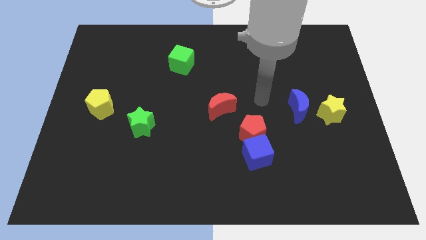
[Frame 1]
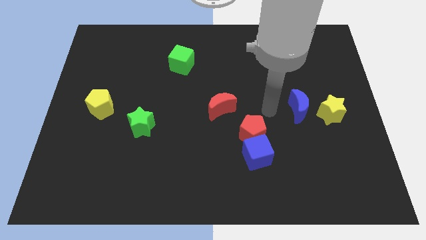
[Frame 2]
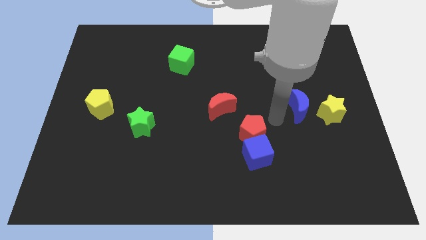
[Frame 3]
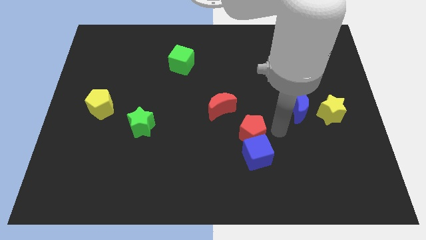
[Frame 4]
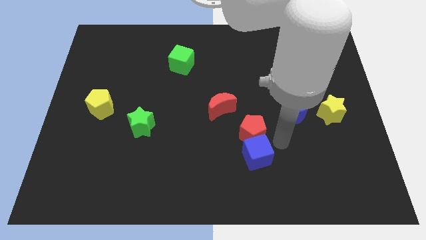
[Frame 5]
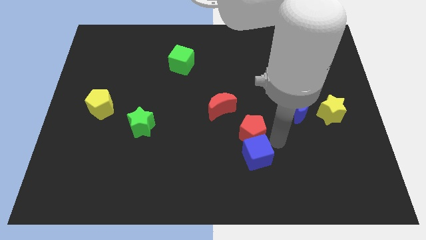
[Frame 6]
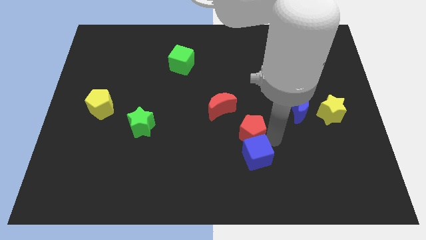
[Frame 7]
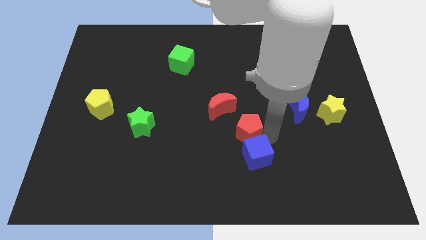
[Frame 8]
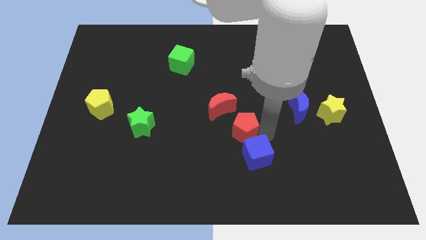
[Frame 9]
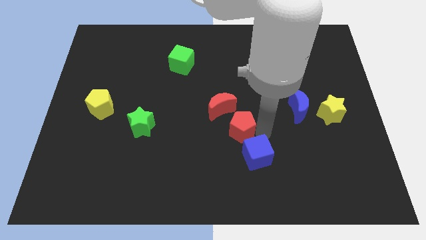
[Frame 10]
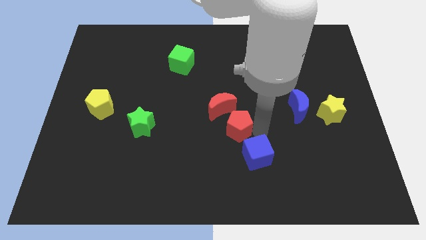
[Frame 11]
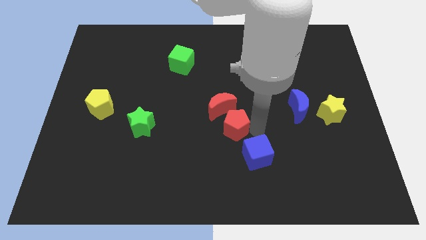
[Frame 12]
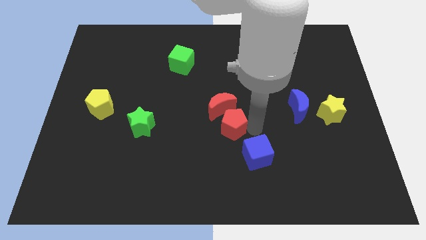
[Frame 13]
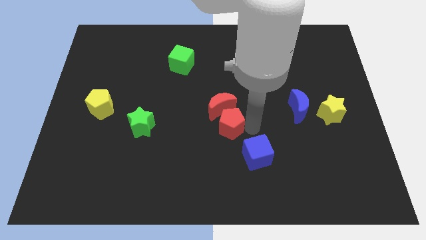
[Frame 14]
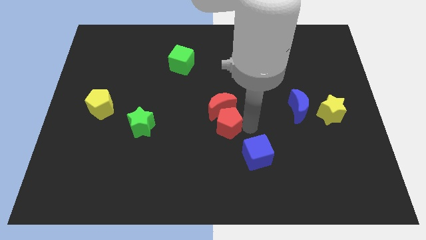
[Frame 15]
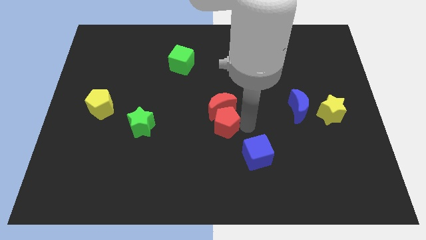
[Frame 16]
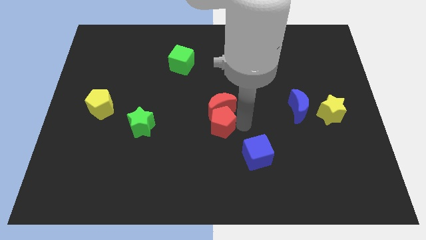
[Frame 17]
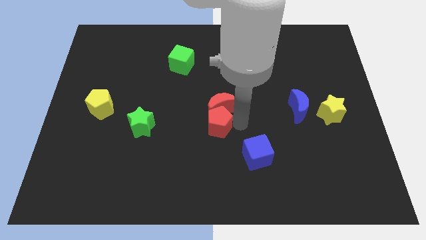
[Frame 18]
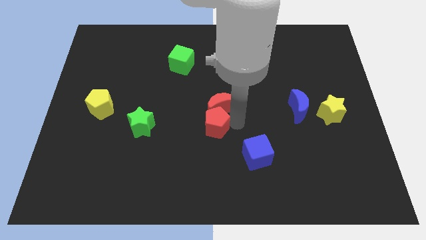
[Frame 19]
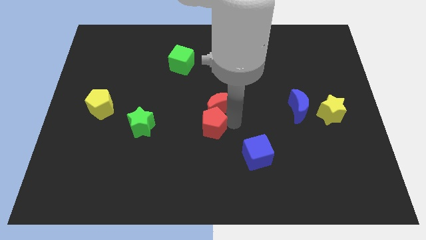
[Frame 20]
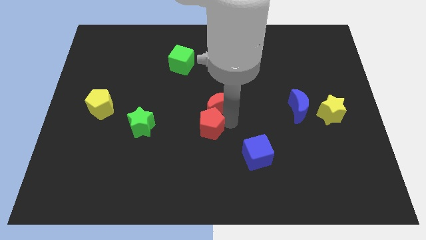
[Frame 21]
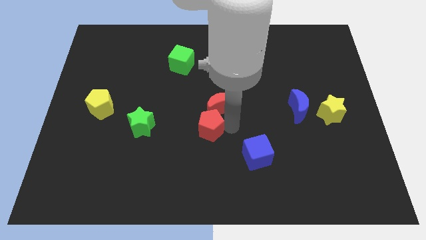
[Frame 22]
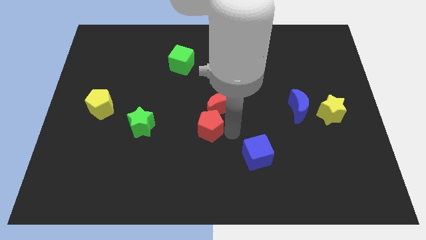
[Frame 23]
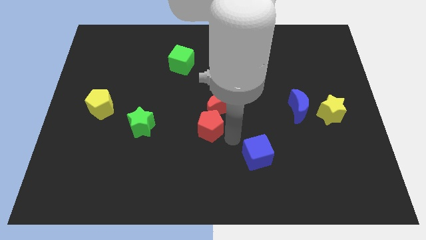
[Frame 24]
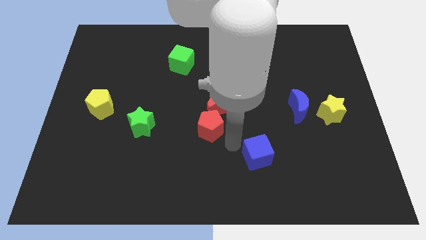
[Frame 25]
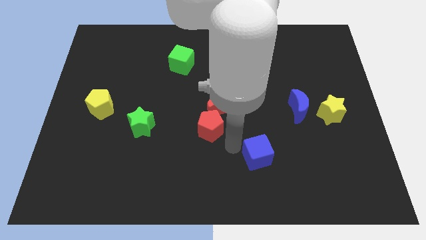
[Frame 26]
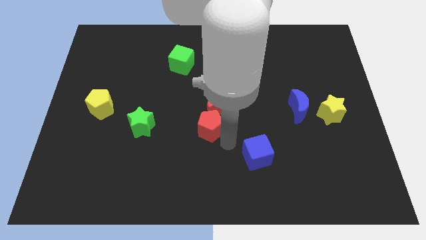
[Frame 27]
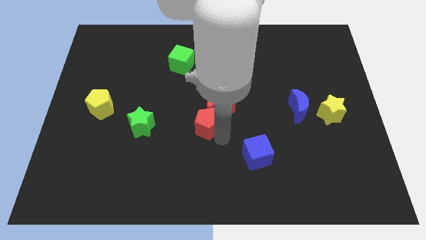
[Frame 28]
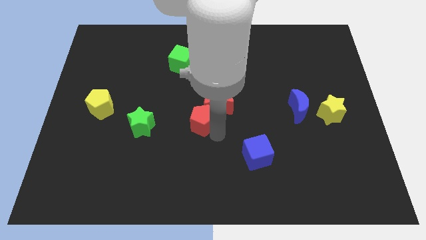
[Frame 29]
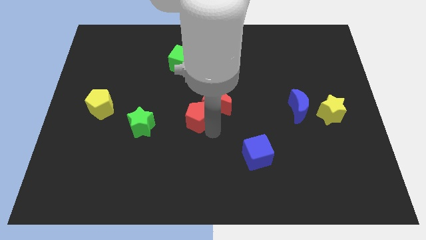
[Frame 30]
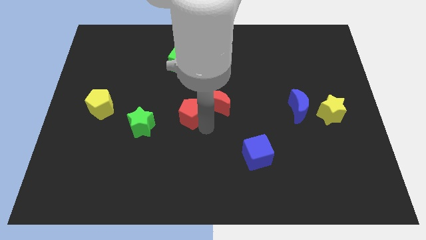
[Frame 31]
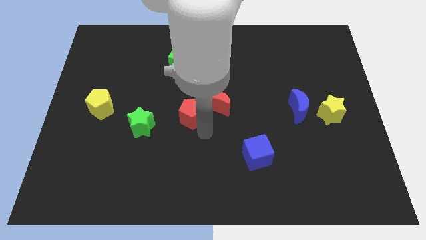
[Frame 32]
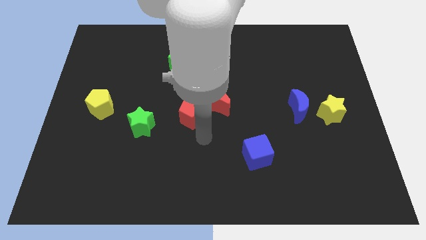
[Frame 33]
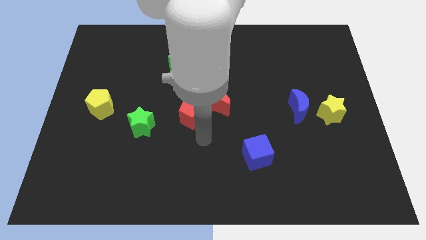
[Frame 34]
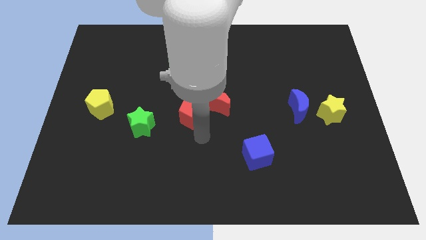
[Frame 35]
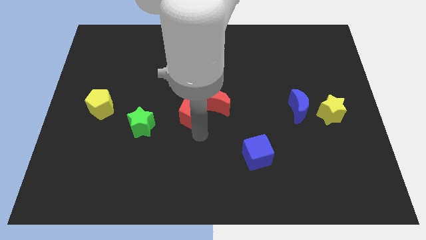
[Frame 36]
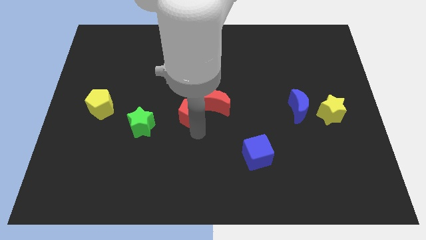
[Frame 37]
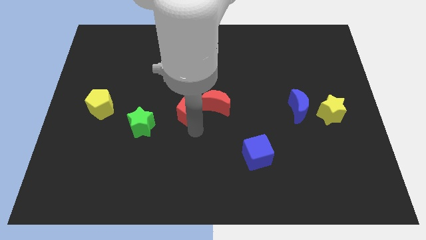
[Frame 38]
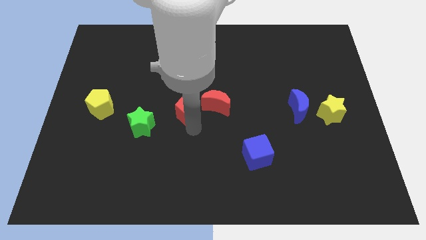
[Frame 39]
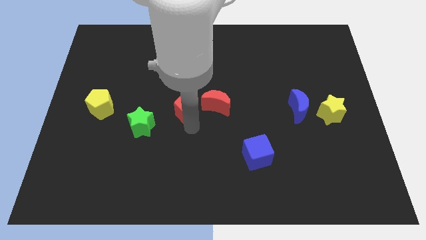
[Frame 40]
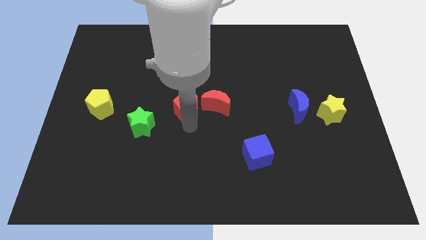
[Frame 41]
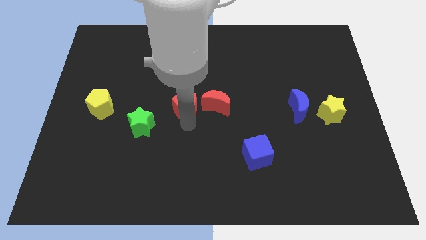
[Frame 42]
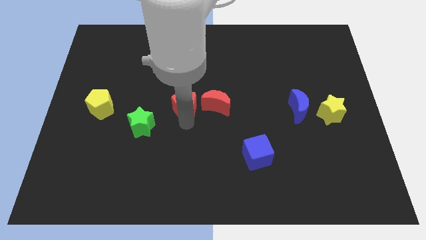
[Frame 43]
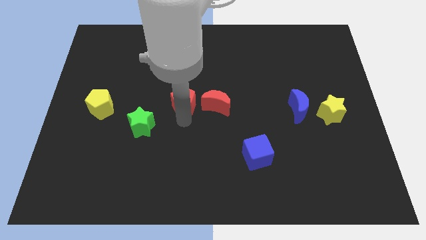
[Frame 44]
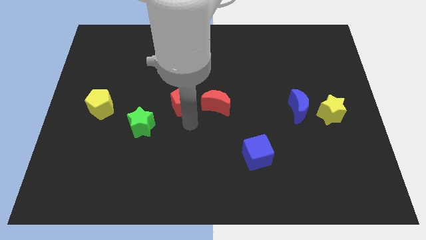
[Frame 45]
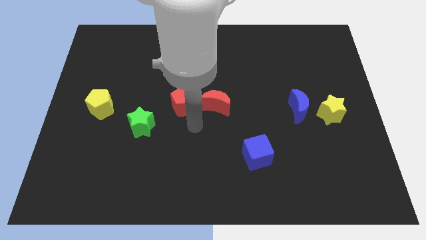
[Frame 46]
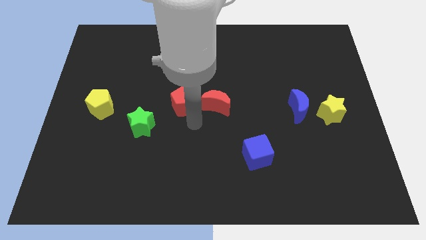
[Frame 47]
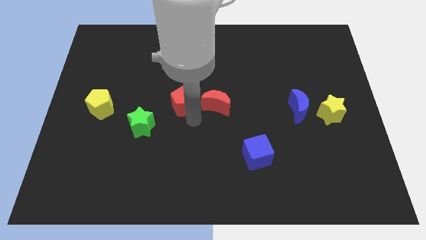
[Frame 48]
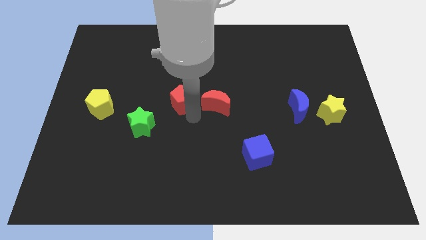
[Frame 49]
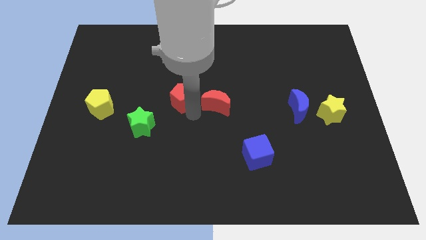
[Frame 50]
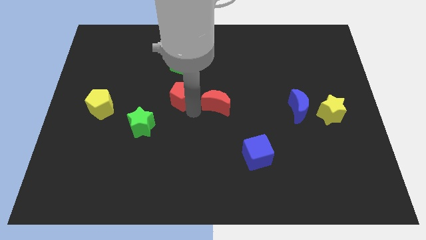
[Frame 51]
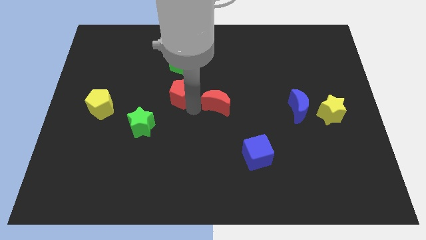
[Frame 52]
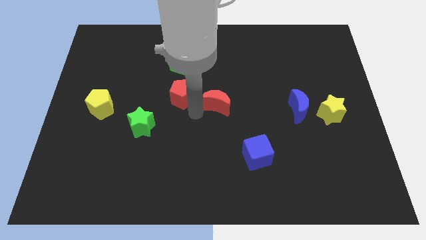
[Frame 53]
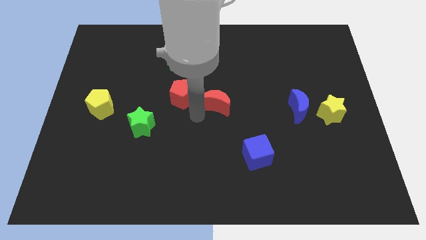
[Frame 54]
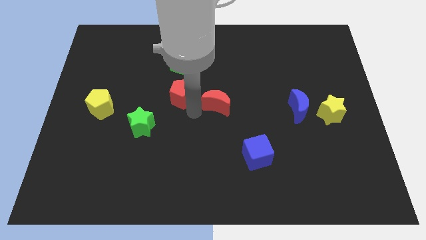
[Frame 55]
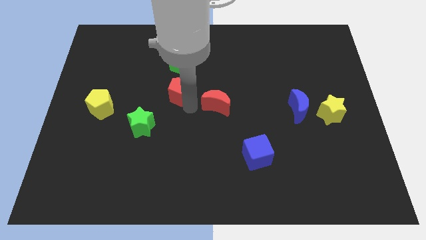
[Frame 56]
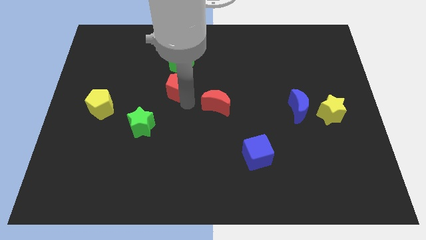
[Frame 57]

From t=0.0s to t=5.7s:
move the red pentagon upwards and to the left diagonally

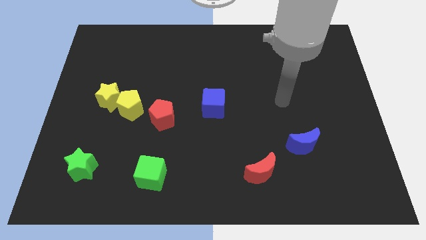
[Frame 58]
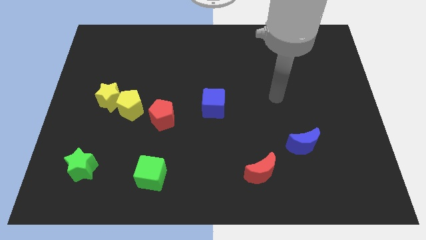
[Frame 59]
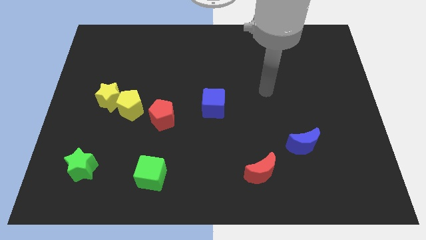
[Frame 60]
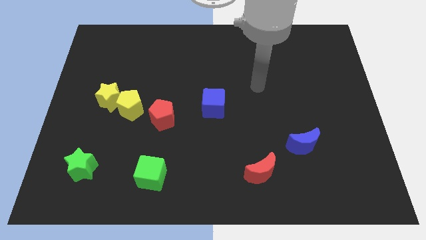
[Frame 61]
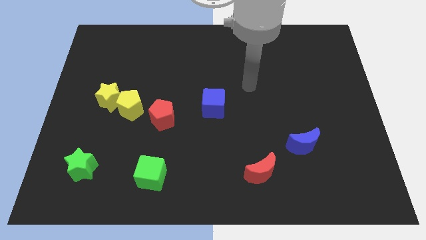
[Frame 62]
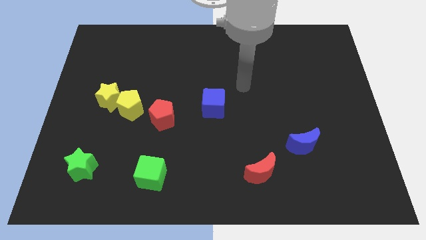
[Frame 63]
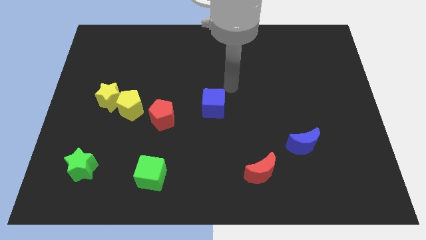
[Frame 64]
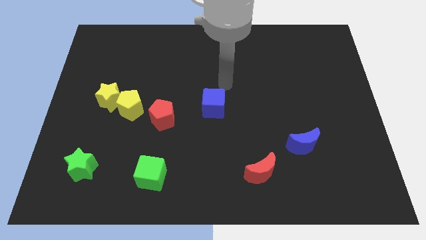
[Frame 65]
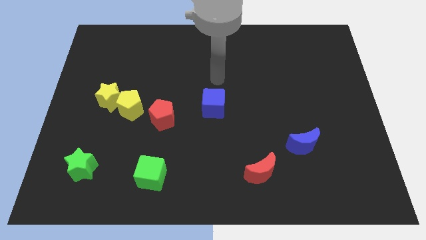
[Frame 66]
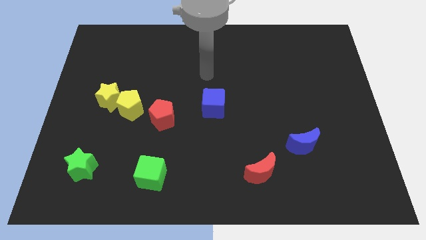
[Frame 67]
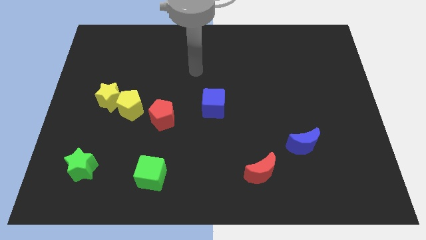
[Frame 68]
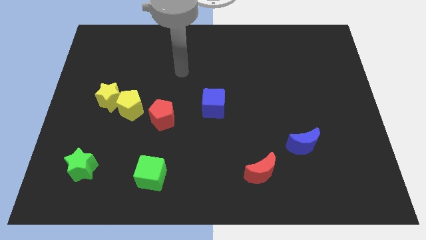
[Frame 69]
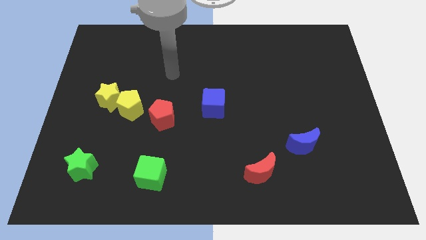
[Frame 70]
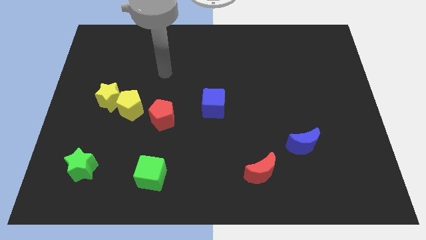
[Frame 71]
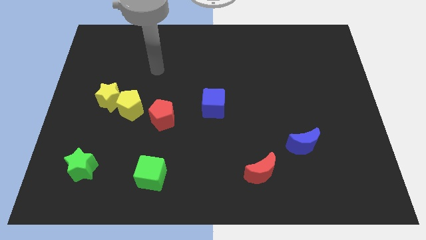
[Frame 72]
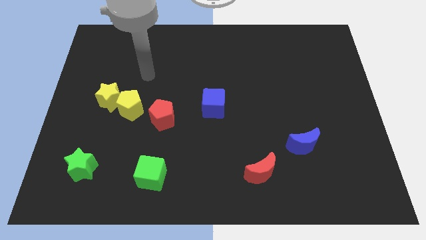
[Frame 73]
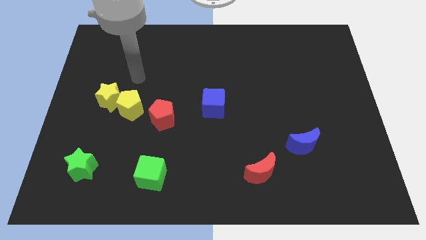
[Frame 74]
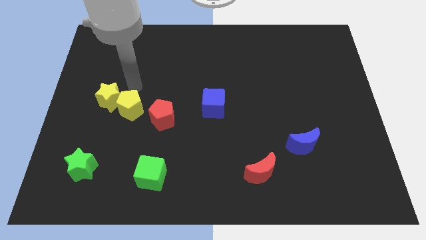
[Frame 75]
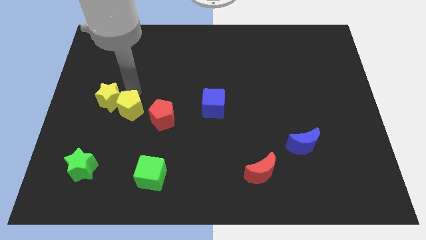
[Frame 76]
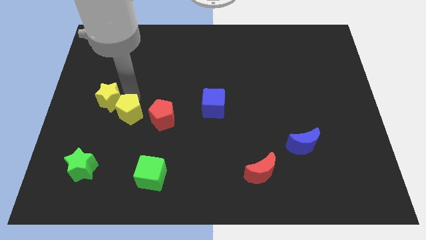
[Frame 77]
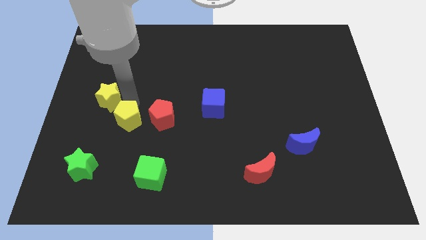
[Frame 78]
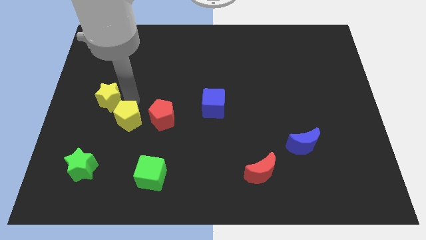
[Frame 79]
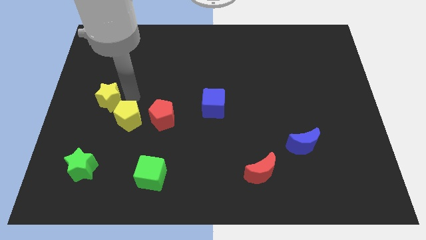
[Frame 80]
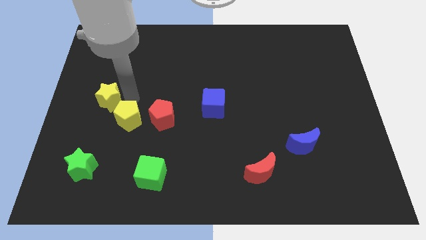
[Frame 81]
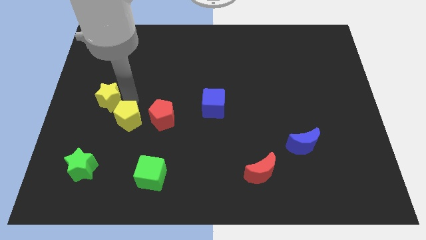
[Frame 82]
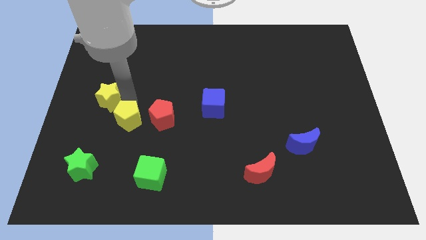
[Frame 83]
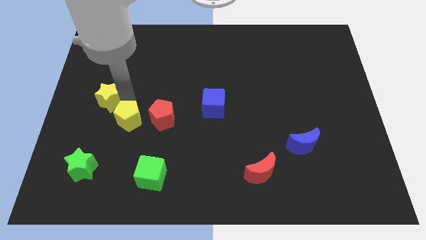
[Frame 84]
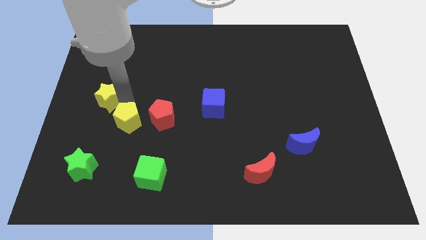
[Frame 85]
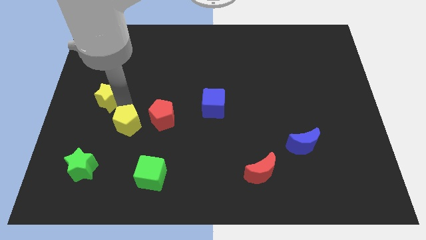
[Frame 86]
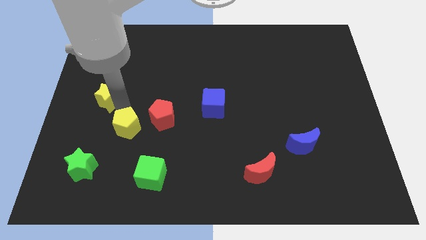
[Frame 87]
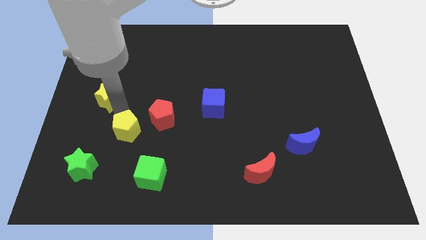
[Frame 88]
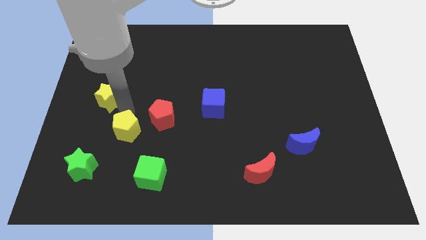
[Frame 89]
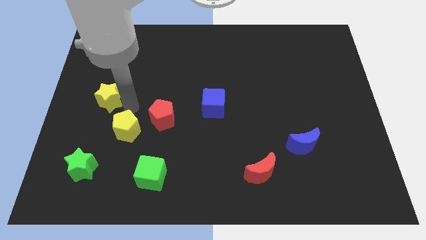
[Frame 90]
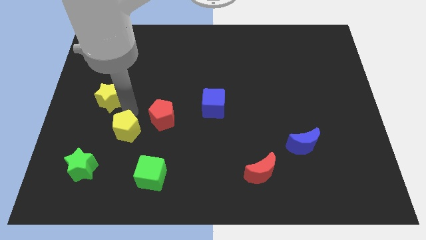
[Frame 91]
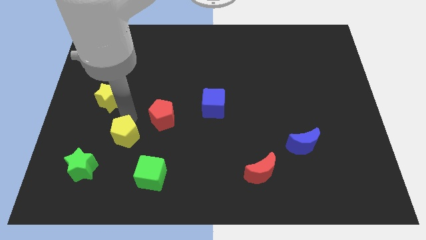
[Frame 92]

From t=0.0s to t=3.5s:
move the yellow pentagon a little bit down
